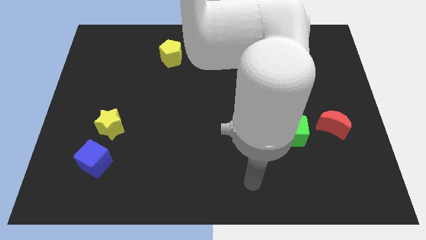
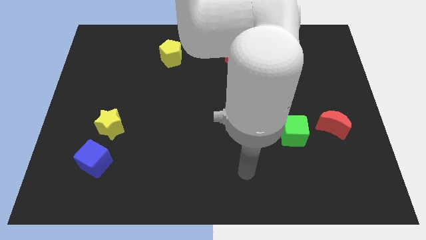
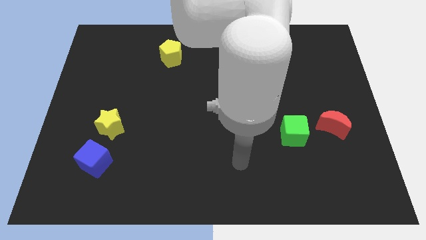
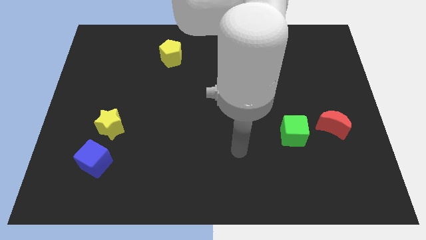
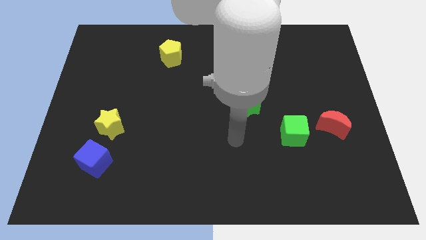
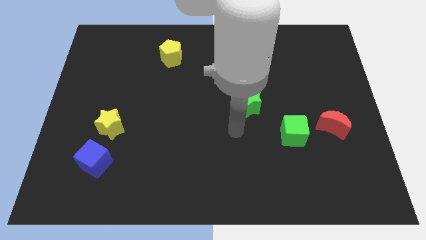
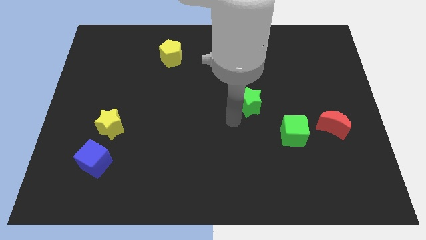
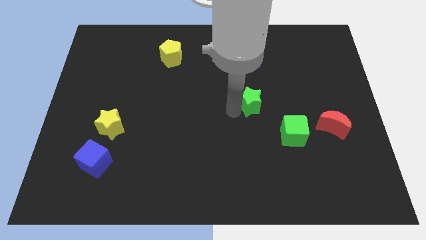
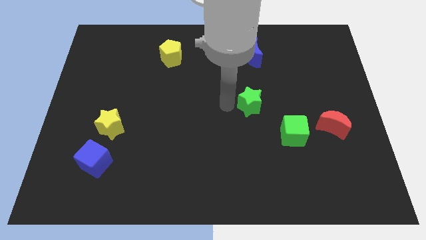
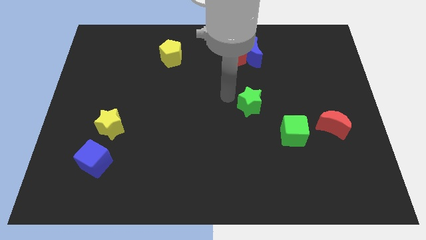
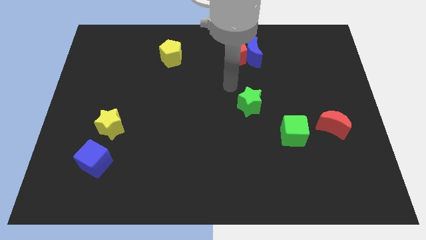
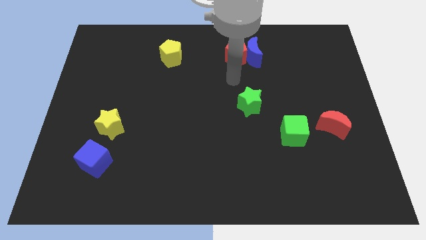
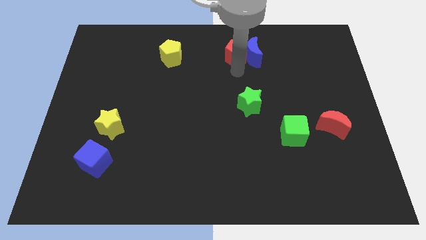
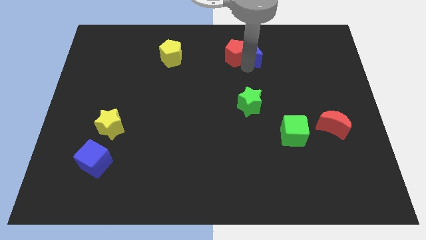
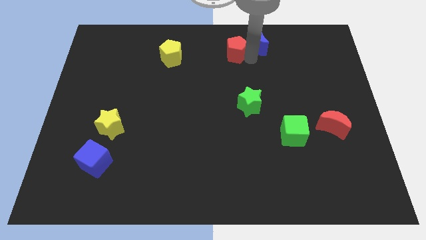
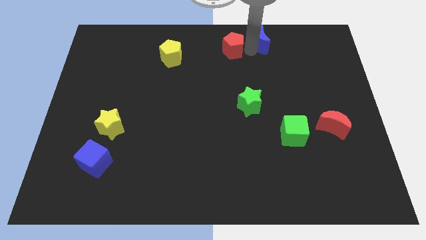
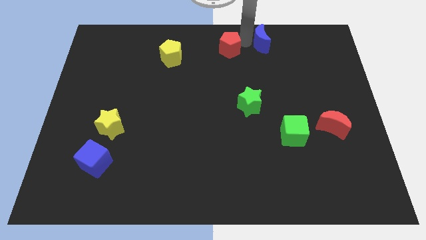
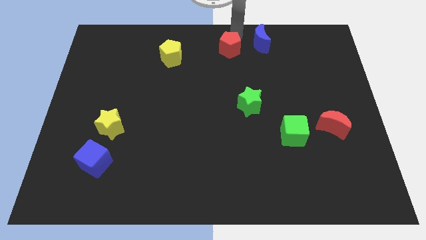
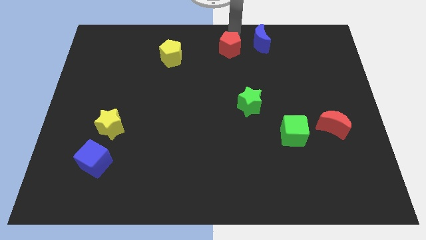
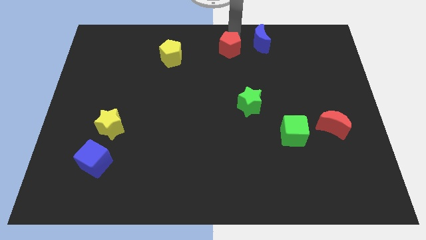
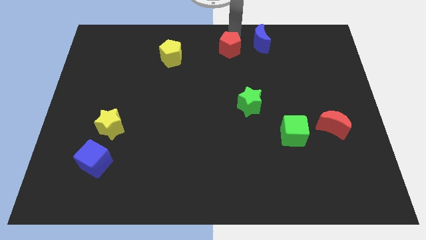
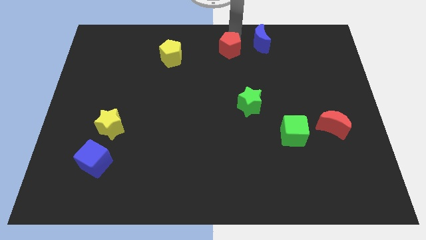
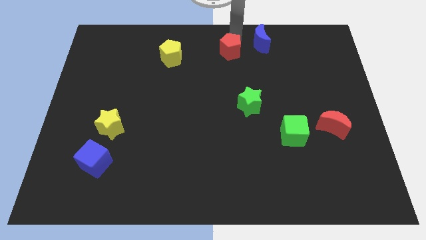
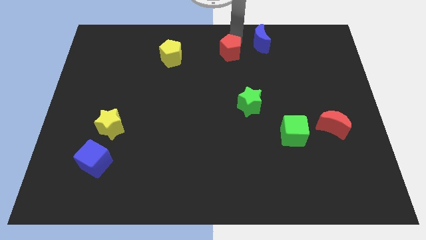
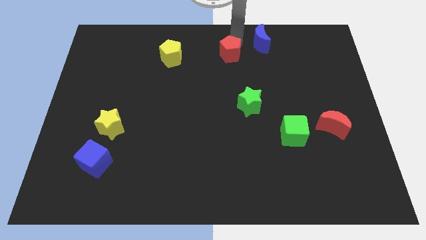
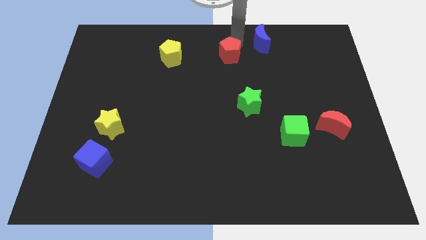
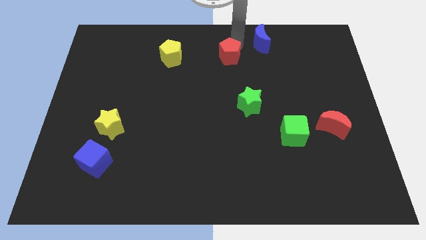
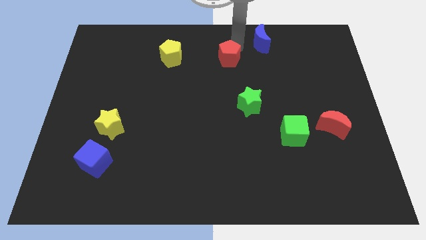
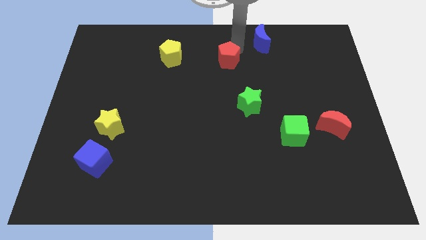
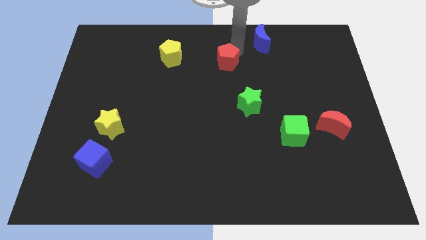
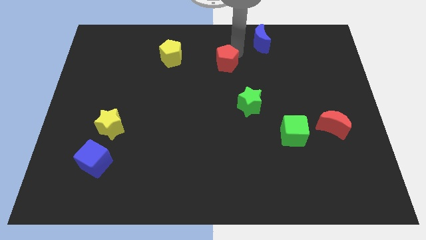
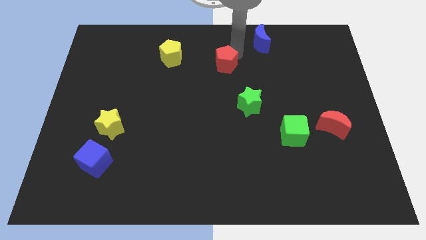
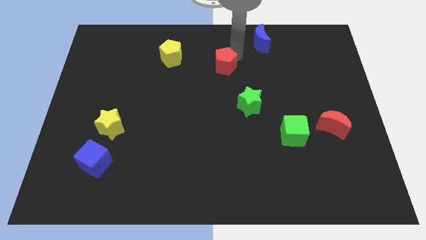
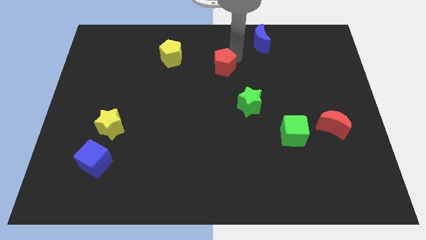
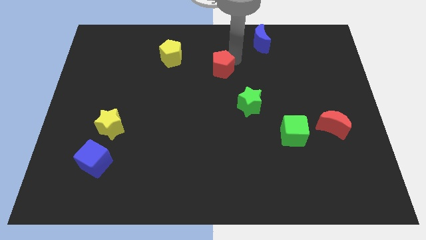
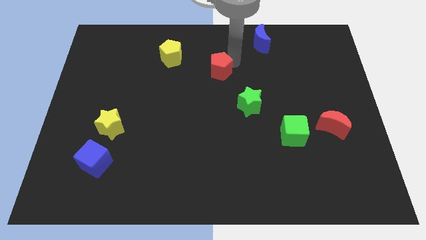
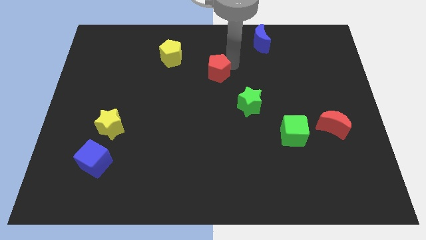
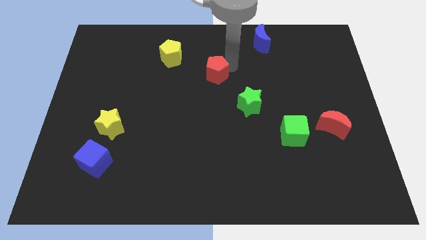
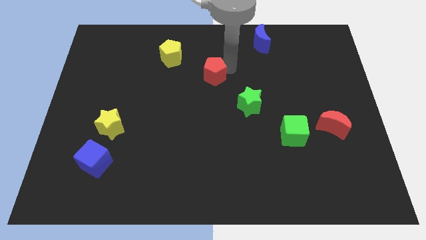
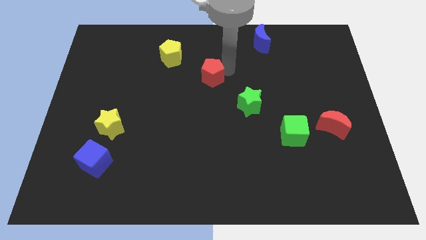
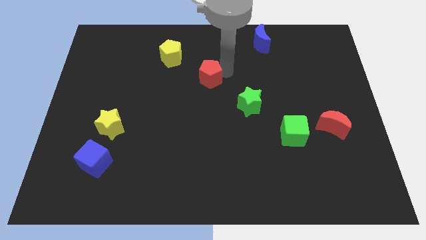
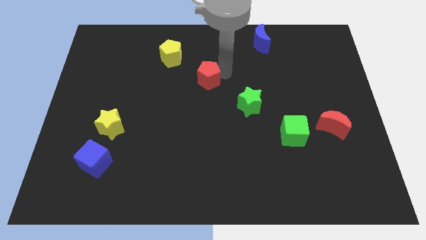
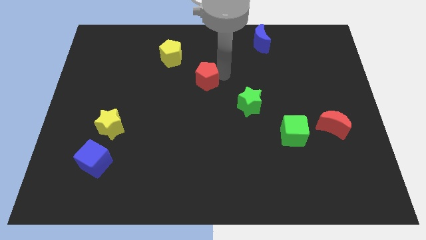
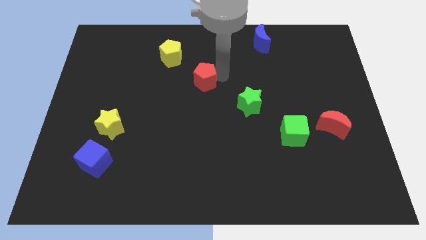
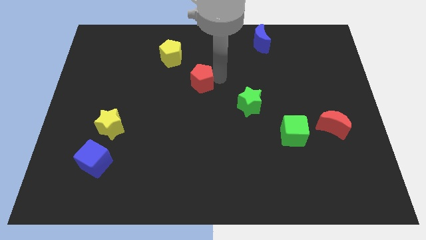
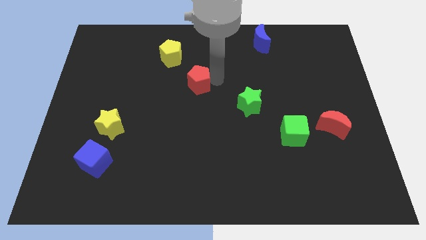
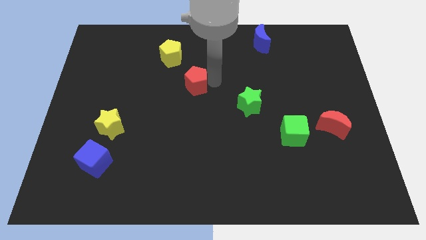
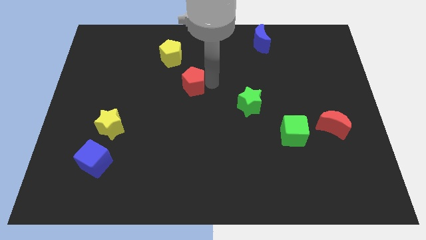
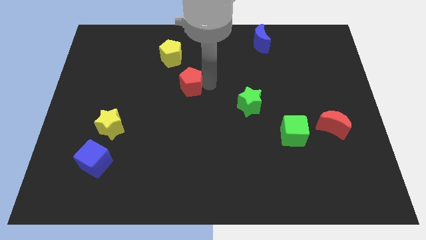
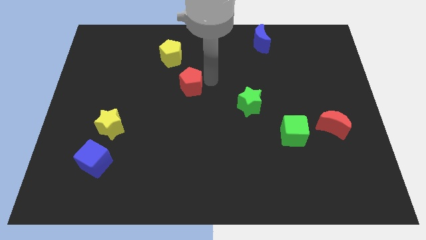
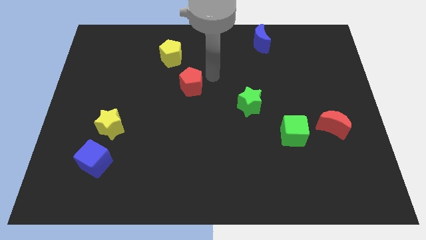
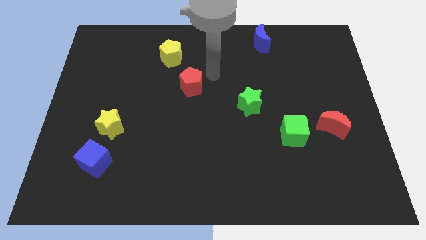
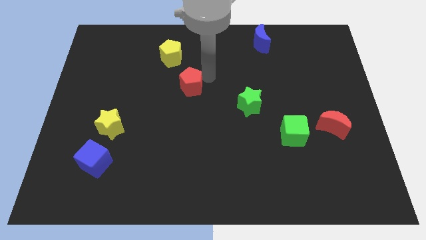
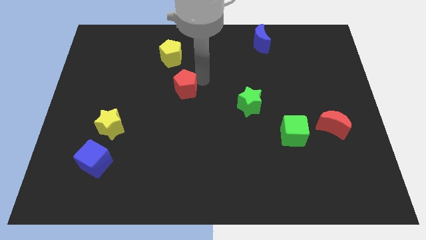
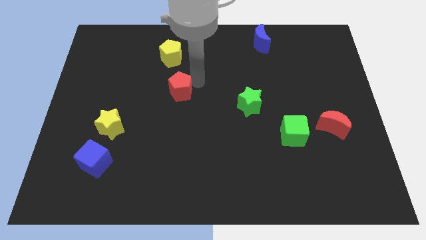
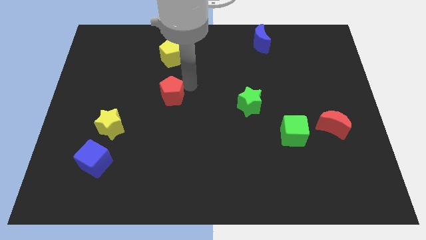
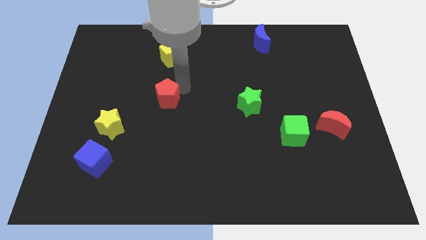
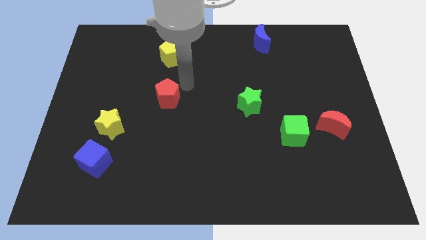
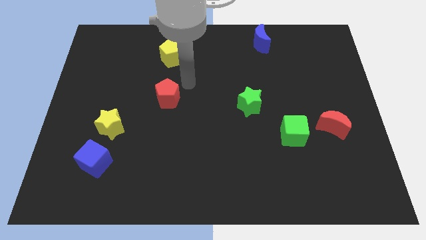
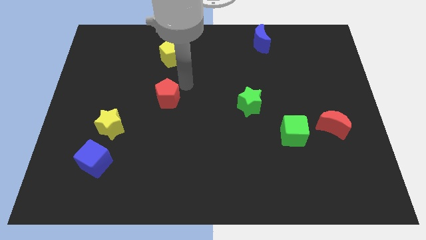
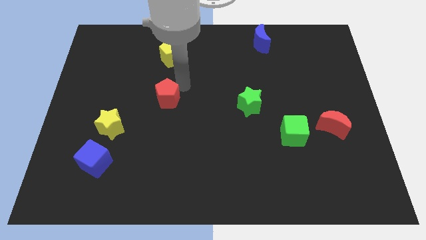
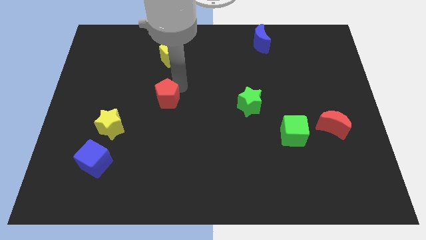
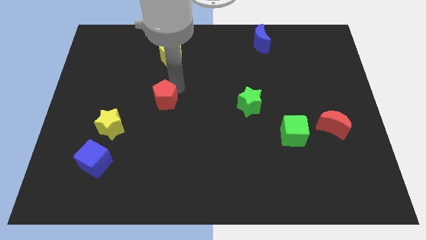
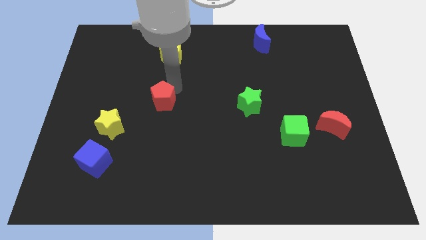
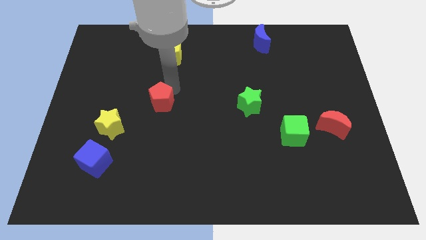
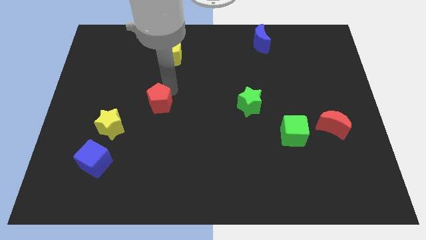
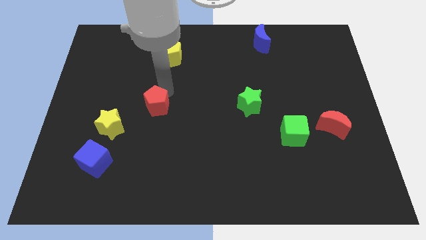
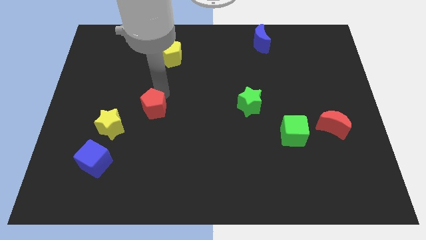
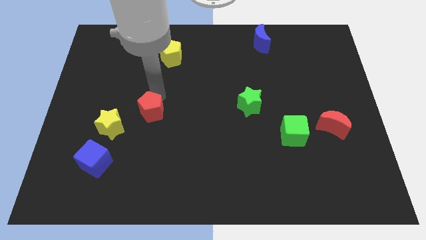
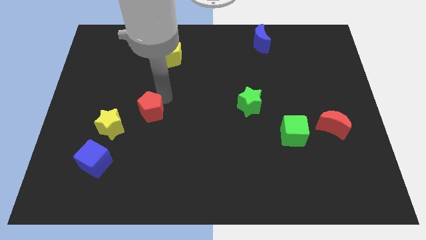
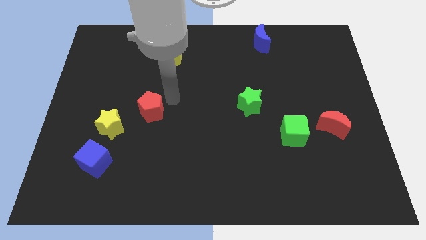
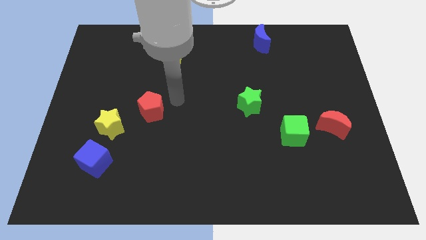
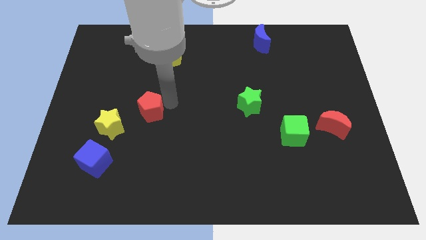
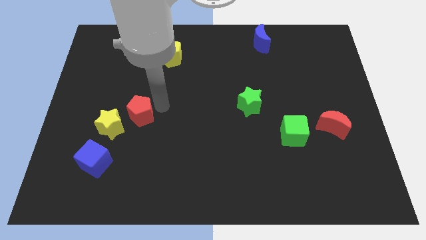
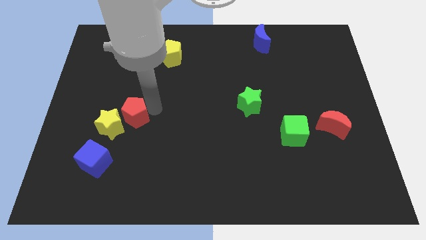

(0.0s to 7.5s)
push the red pentagon towards the yellow star
